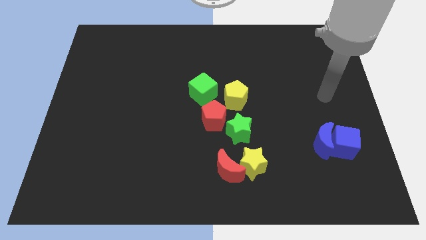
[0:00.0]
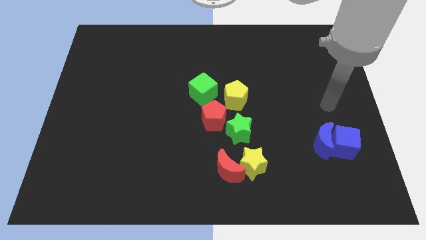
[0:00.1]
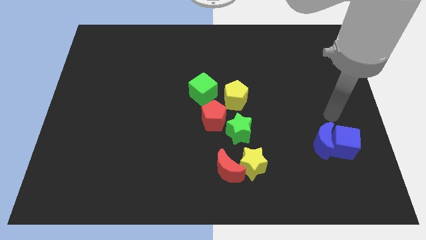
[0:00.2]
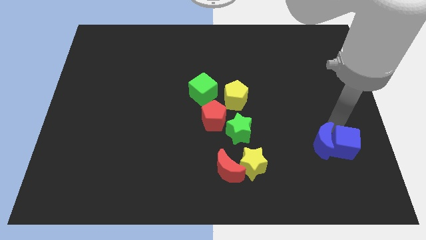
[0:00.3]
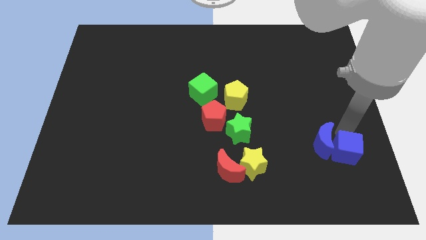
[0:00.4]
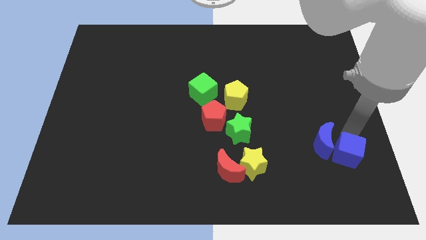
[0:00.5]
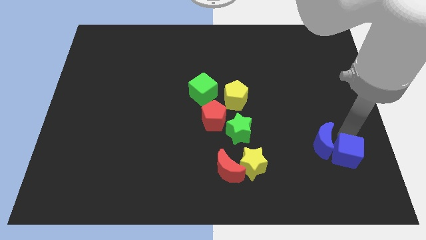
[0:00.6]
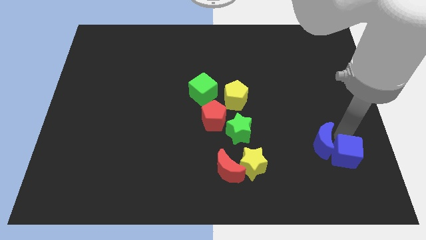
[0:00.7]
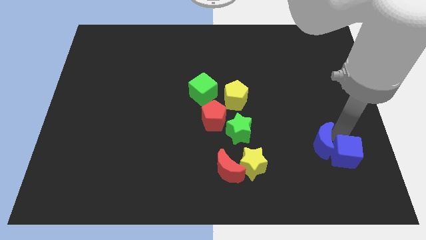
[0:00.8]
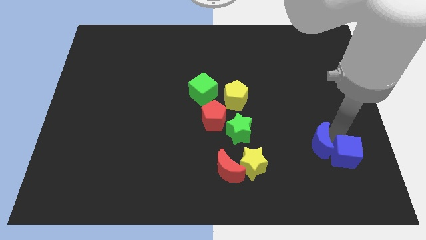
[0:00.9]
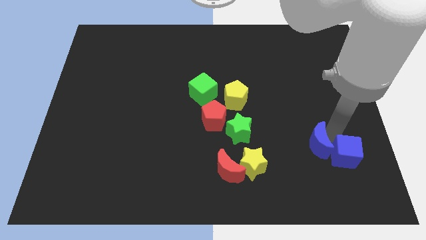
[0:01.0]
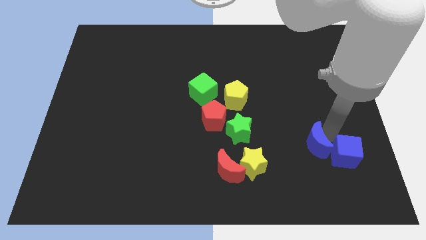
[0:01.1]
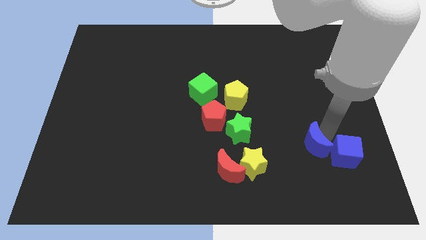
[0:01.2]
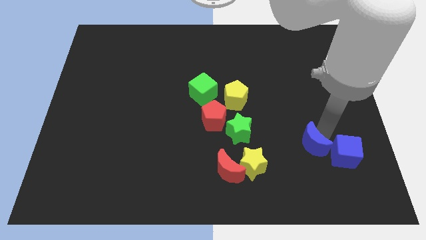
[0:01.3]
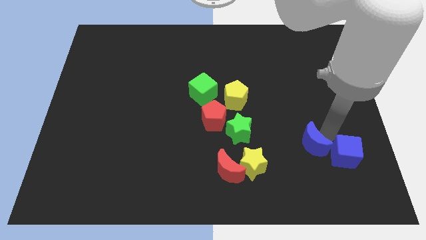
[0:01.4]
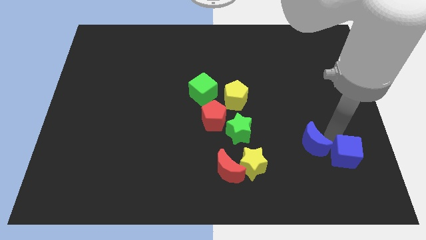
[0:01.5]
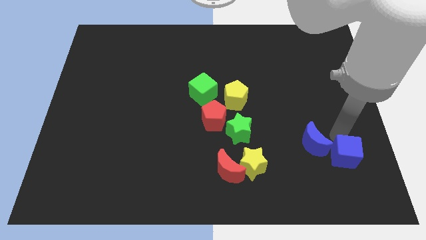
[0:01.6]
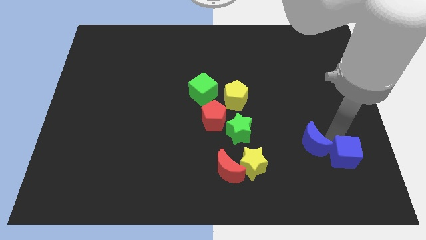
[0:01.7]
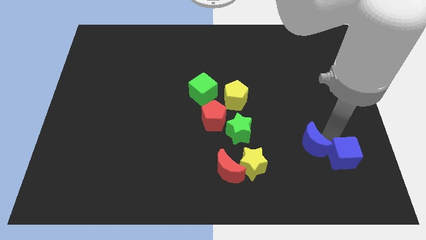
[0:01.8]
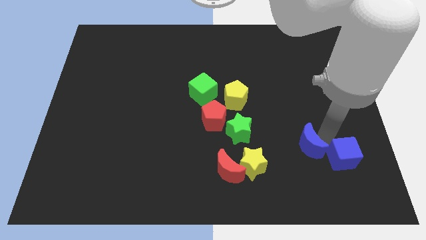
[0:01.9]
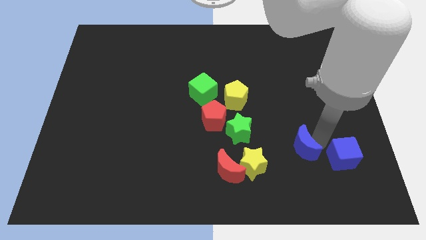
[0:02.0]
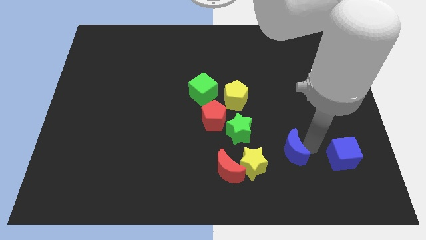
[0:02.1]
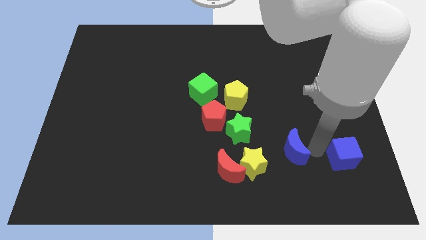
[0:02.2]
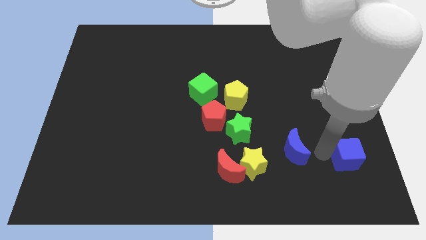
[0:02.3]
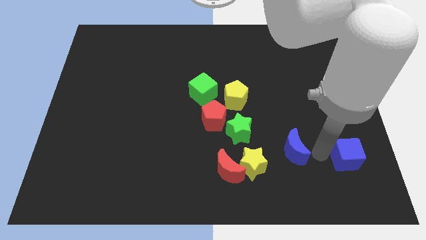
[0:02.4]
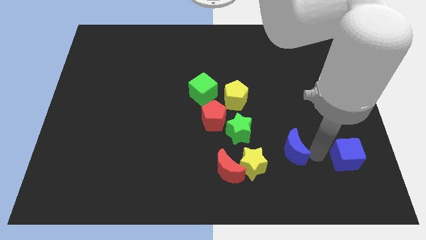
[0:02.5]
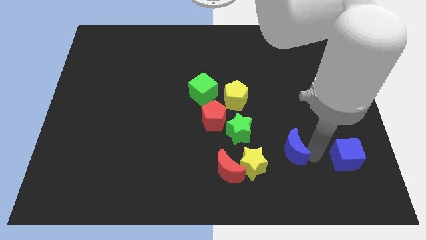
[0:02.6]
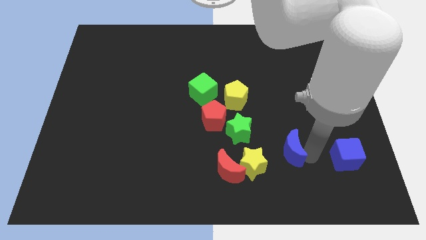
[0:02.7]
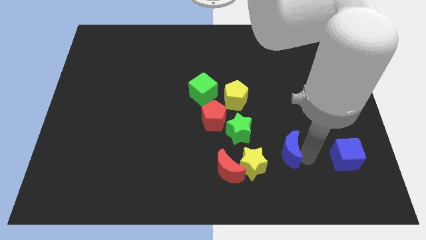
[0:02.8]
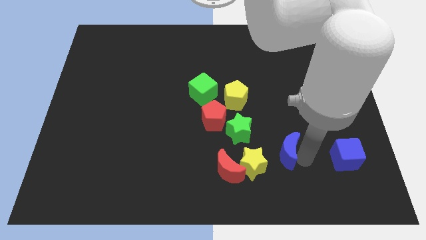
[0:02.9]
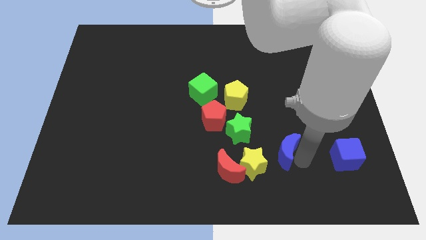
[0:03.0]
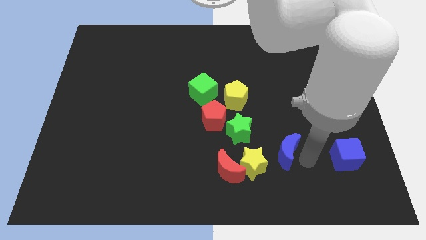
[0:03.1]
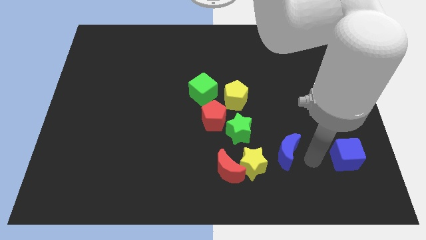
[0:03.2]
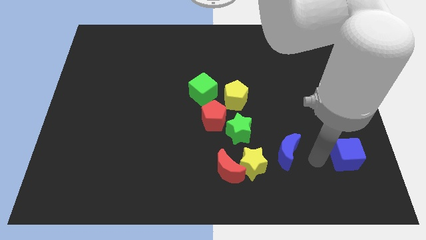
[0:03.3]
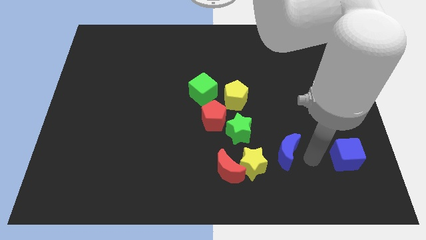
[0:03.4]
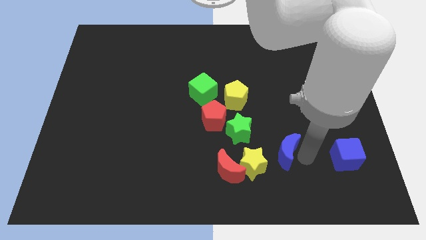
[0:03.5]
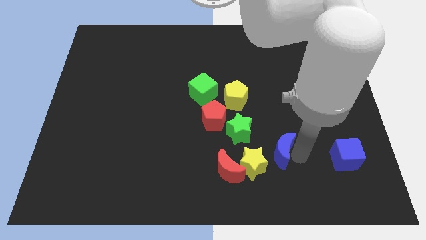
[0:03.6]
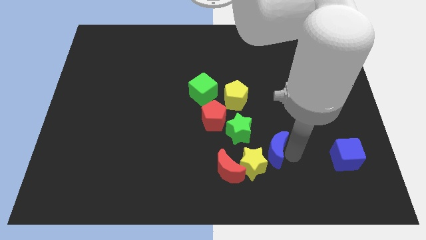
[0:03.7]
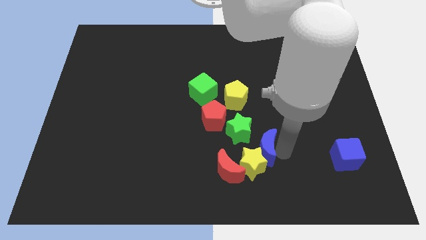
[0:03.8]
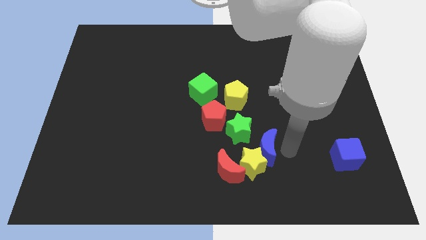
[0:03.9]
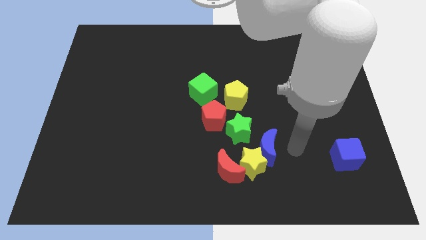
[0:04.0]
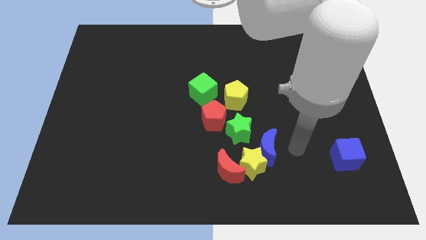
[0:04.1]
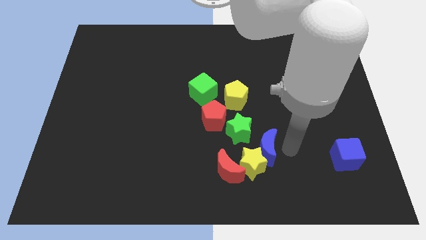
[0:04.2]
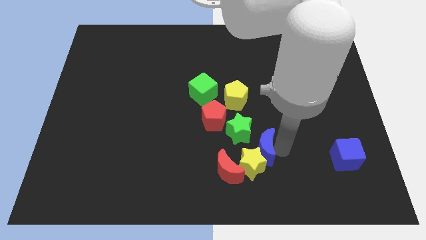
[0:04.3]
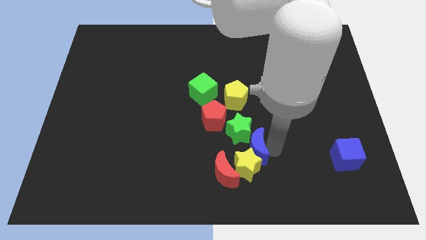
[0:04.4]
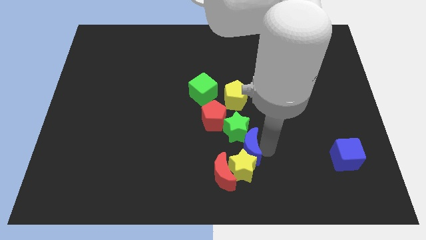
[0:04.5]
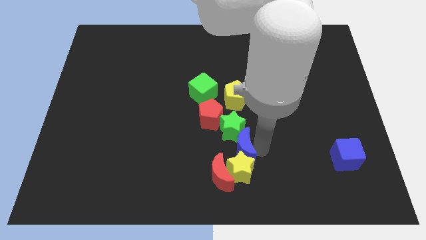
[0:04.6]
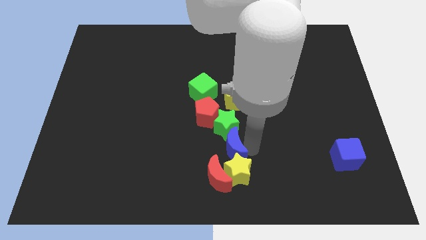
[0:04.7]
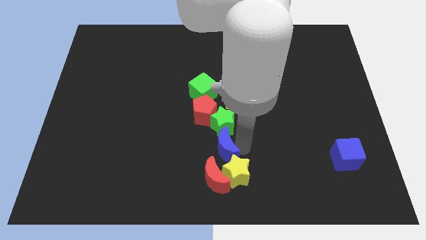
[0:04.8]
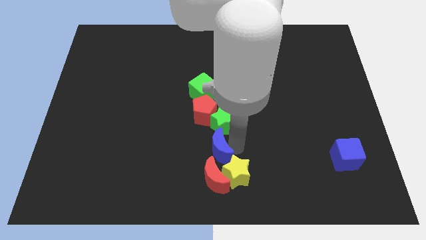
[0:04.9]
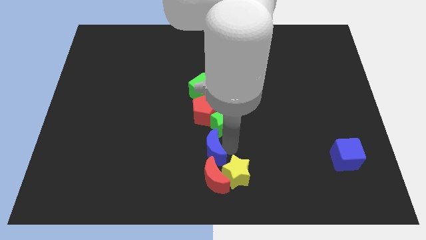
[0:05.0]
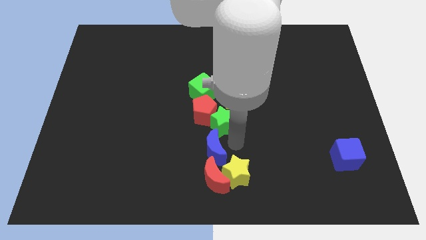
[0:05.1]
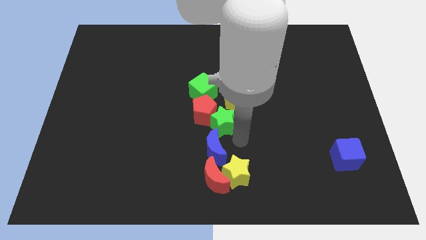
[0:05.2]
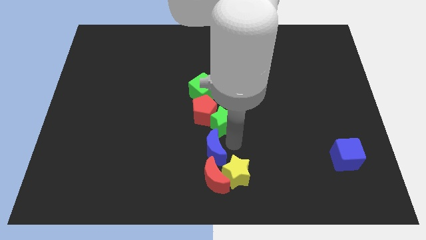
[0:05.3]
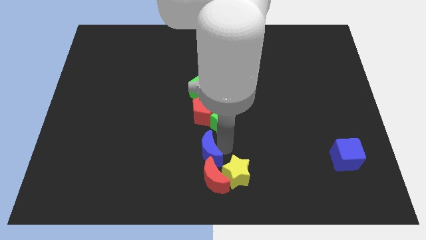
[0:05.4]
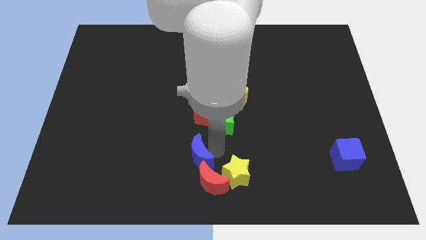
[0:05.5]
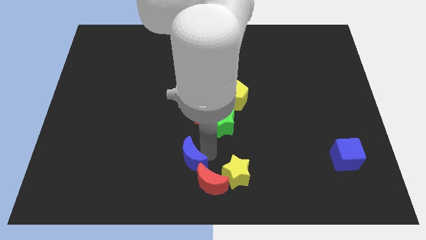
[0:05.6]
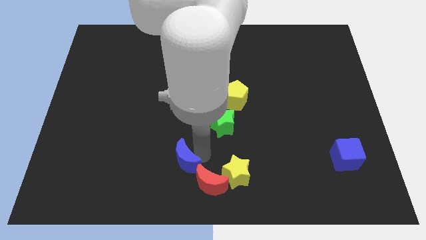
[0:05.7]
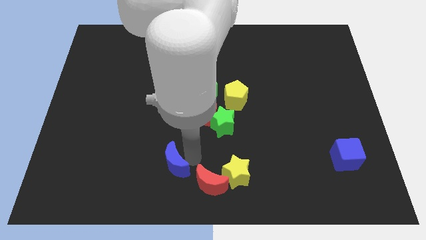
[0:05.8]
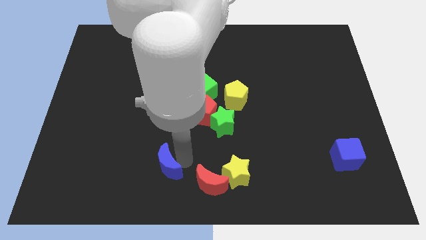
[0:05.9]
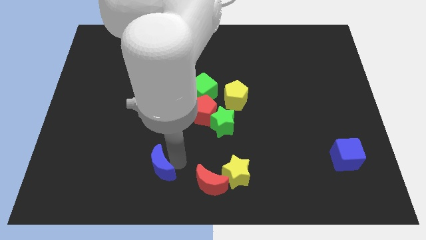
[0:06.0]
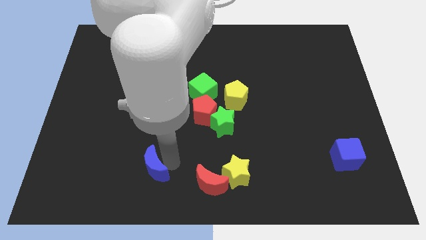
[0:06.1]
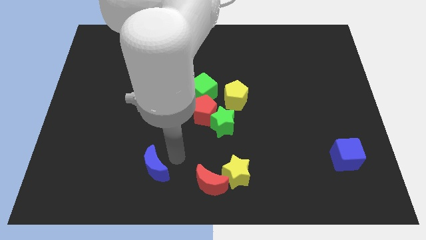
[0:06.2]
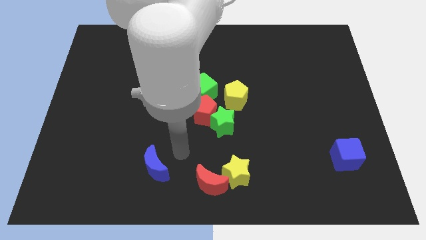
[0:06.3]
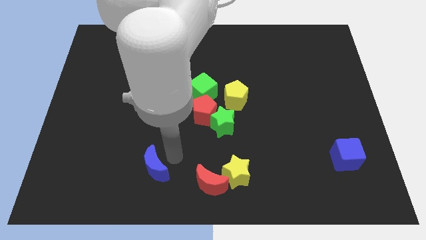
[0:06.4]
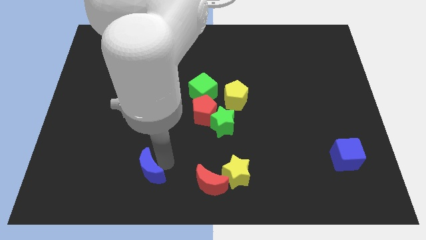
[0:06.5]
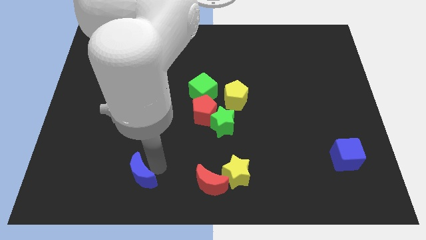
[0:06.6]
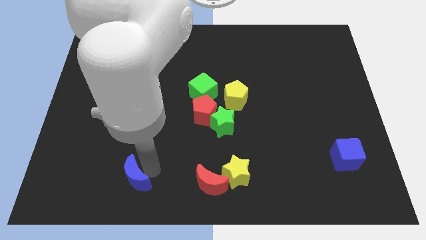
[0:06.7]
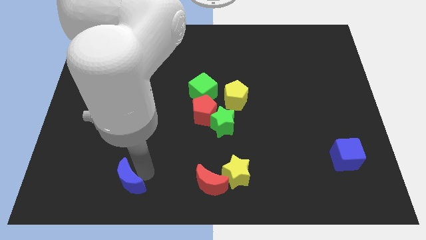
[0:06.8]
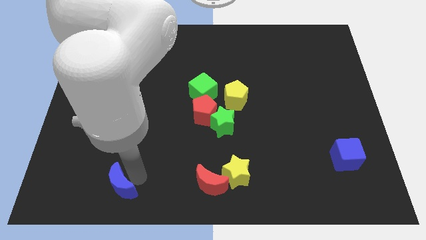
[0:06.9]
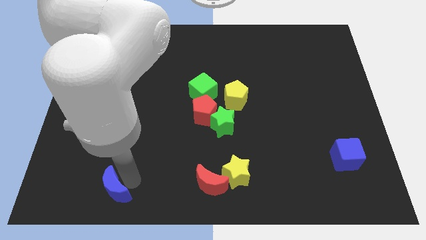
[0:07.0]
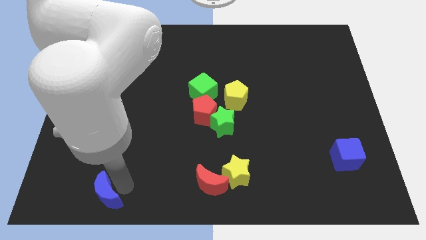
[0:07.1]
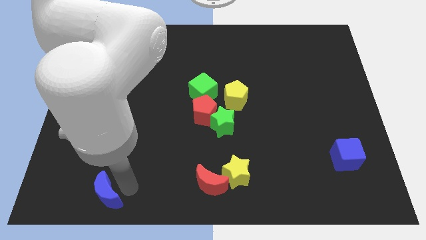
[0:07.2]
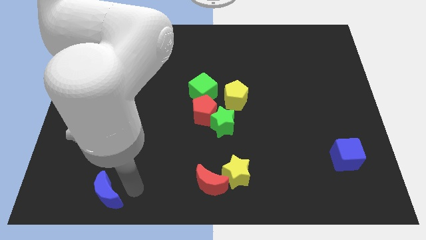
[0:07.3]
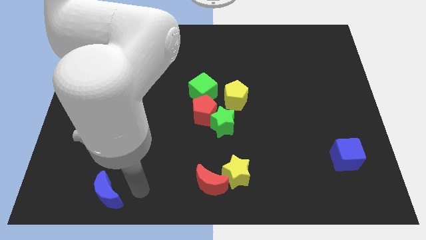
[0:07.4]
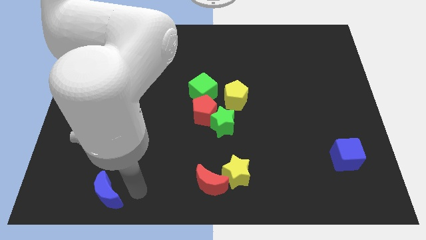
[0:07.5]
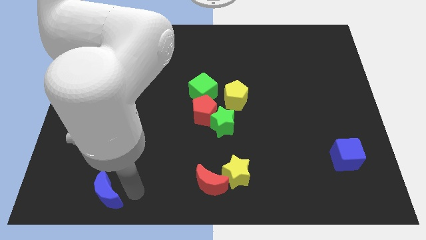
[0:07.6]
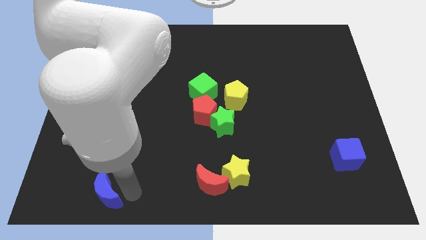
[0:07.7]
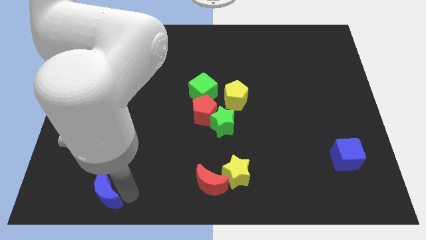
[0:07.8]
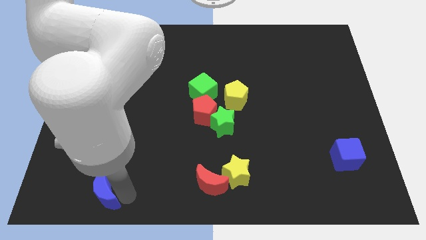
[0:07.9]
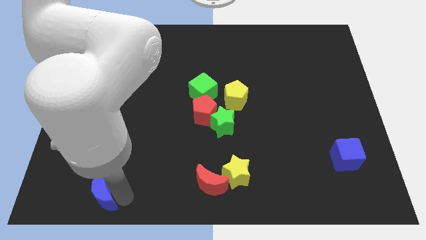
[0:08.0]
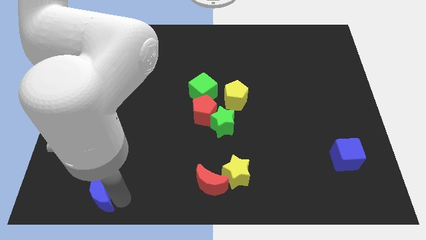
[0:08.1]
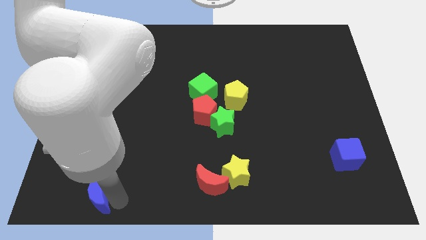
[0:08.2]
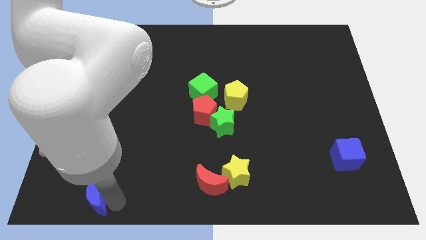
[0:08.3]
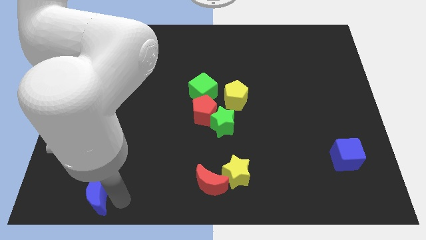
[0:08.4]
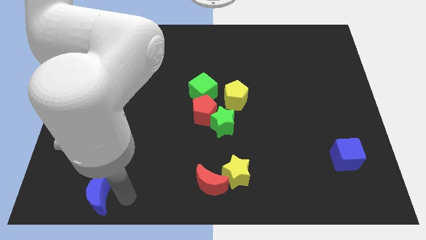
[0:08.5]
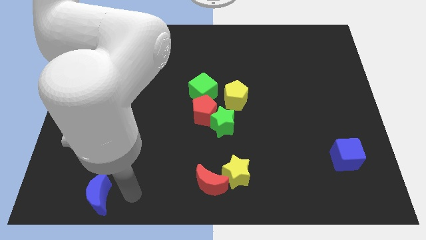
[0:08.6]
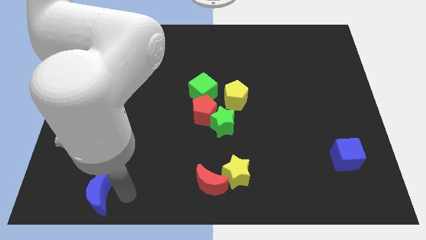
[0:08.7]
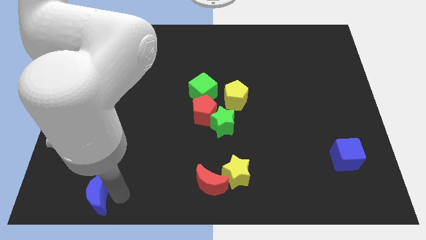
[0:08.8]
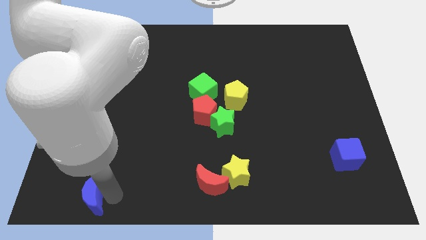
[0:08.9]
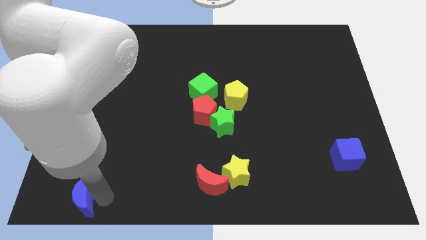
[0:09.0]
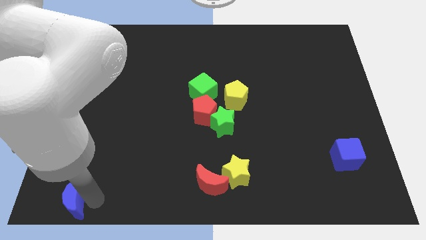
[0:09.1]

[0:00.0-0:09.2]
push the blue moon to the lower left corner
